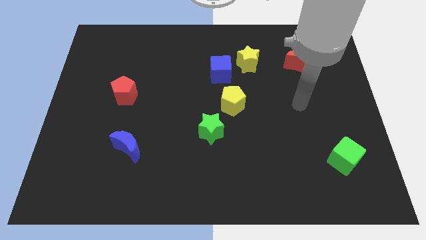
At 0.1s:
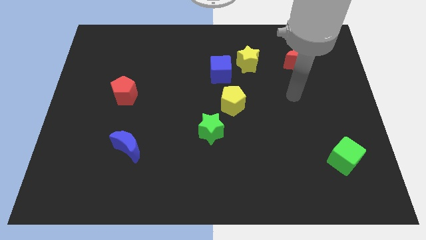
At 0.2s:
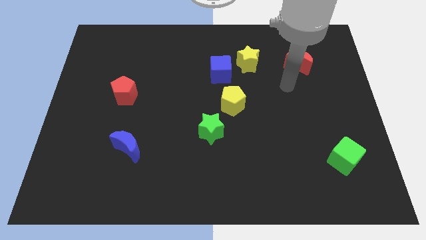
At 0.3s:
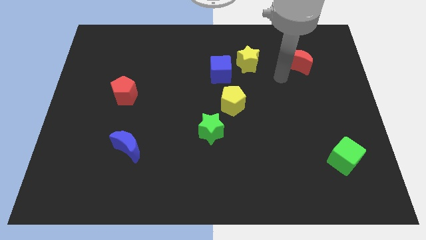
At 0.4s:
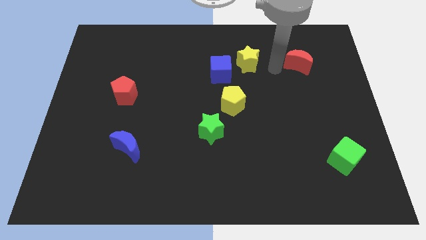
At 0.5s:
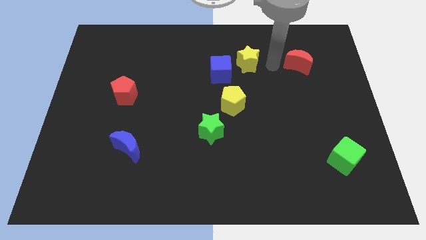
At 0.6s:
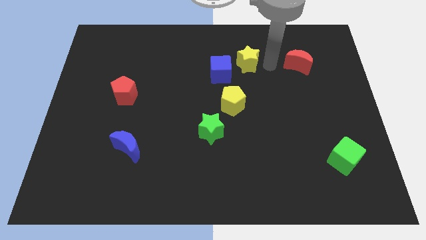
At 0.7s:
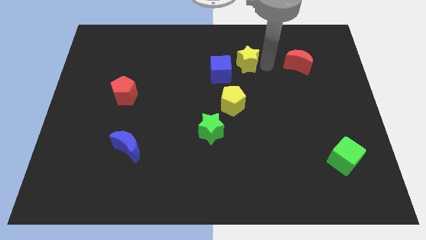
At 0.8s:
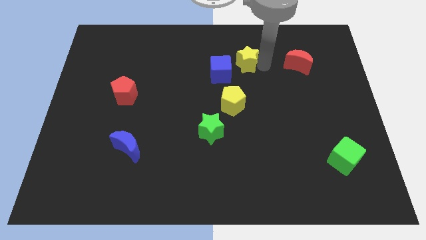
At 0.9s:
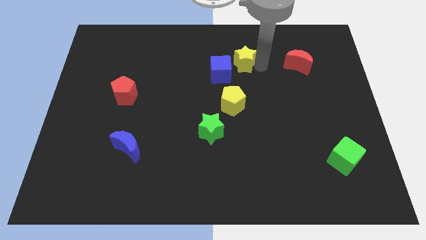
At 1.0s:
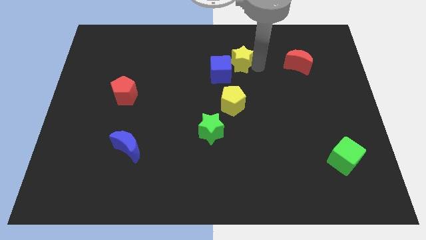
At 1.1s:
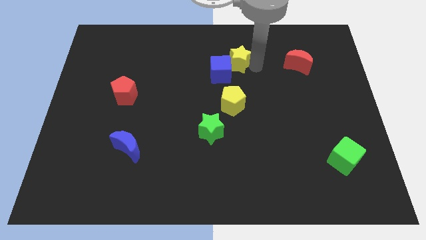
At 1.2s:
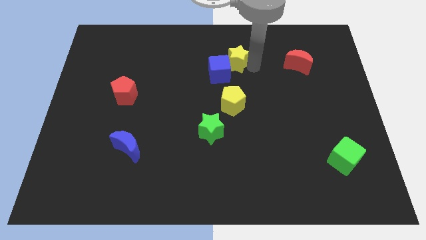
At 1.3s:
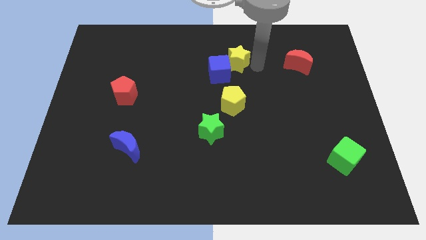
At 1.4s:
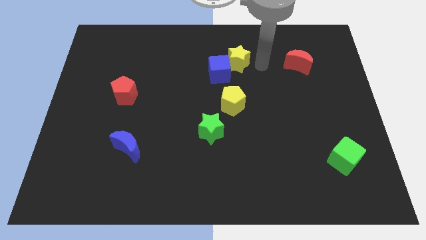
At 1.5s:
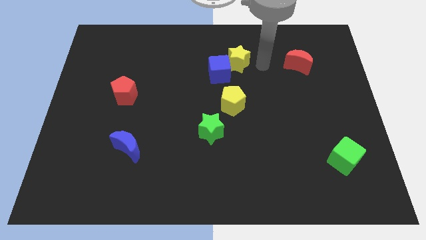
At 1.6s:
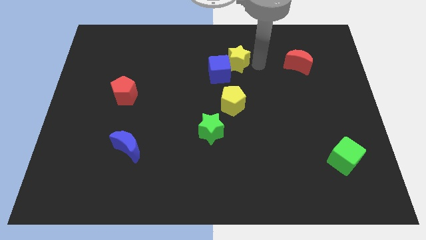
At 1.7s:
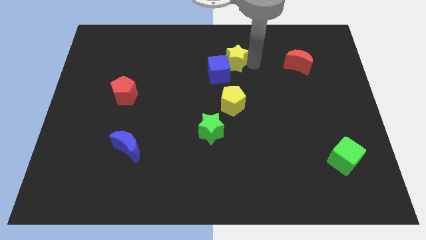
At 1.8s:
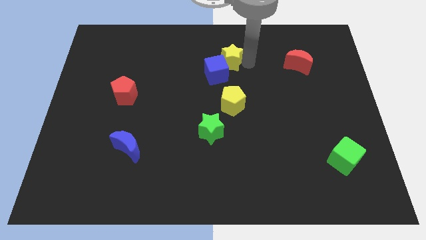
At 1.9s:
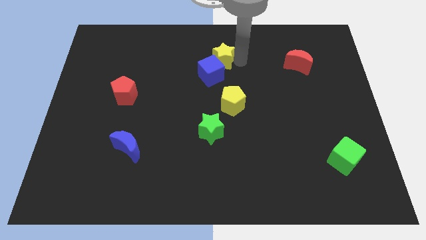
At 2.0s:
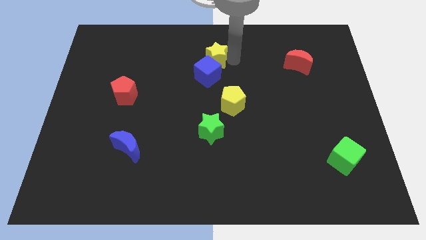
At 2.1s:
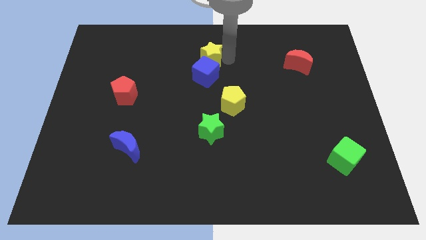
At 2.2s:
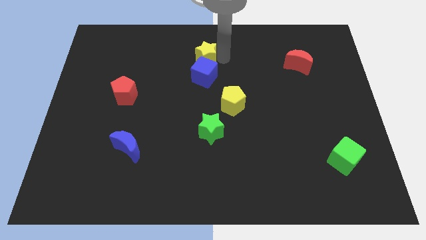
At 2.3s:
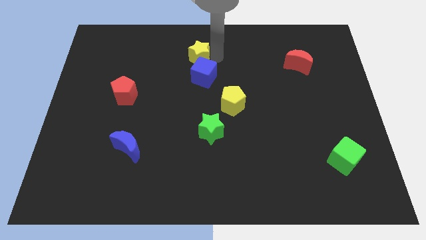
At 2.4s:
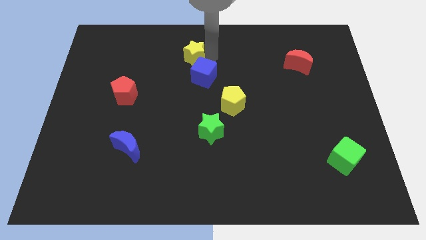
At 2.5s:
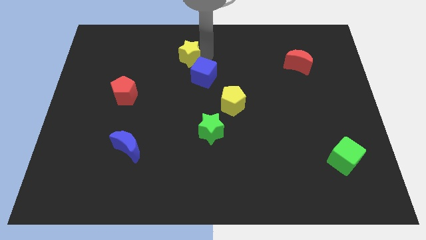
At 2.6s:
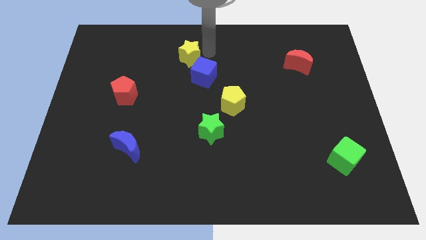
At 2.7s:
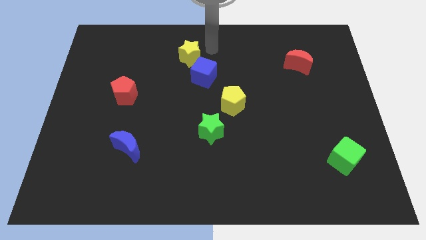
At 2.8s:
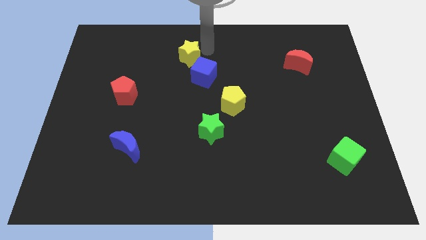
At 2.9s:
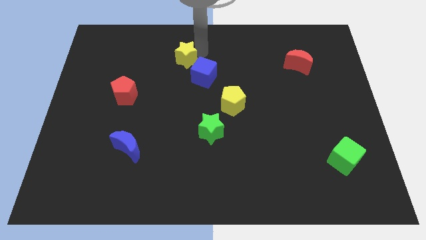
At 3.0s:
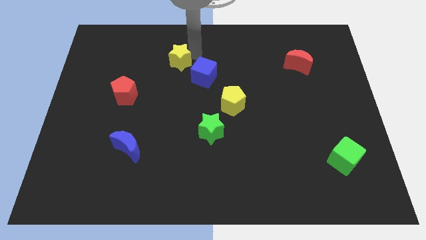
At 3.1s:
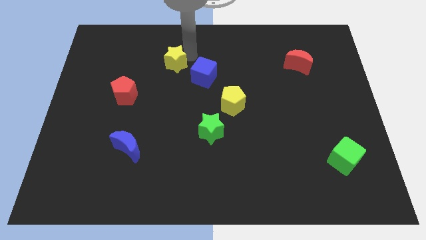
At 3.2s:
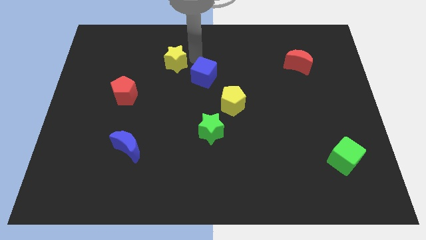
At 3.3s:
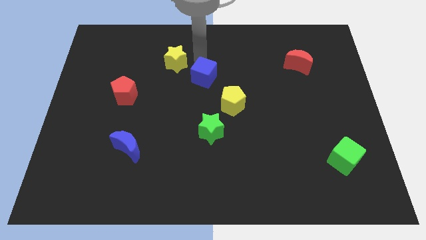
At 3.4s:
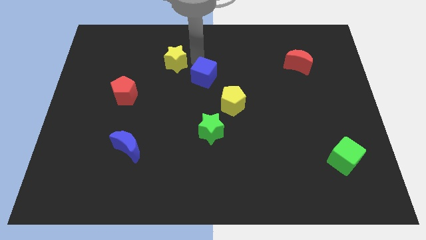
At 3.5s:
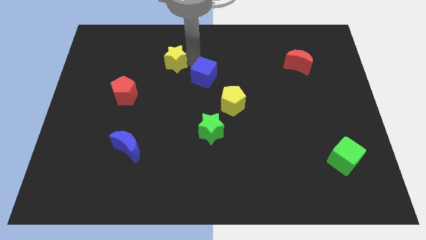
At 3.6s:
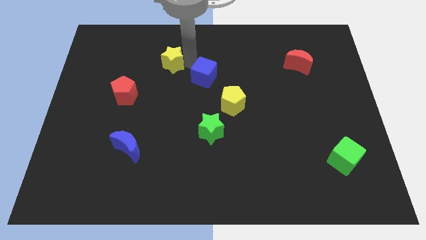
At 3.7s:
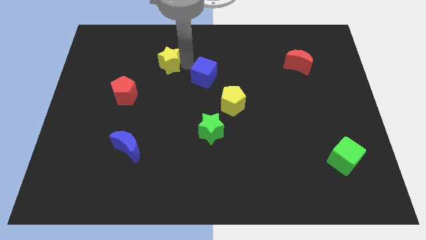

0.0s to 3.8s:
move the yellow star left

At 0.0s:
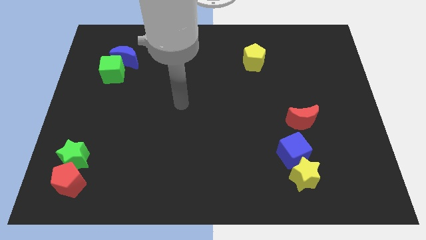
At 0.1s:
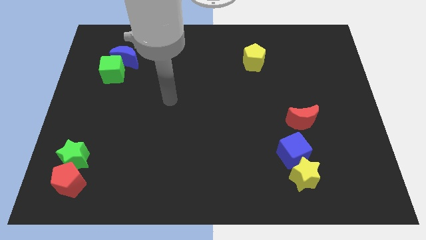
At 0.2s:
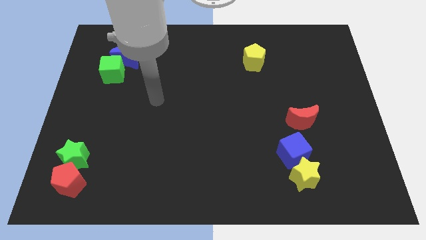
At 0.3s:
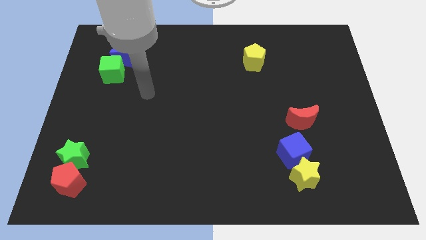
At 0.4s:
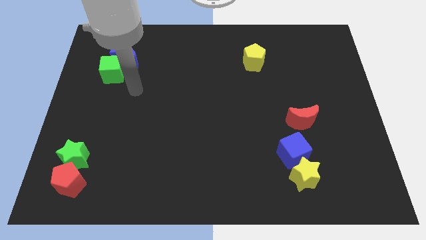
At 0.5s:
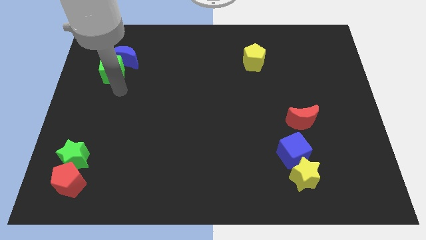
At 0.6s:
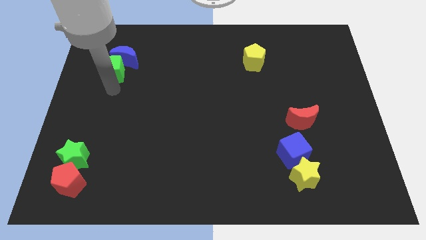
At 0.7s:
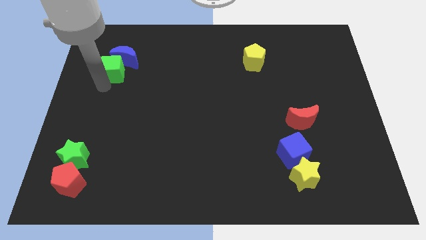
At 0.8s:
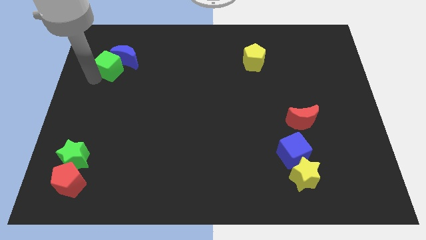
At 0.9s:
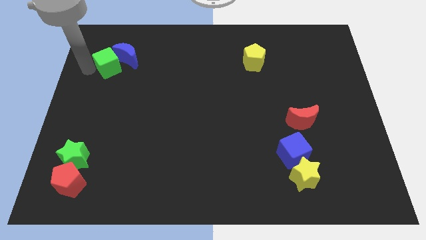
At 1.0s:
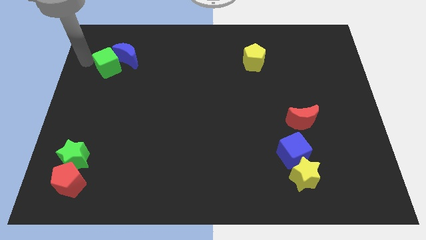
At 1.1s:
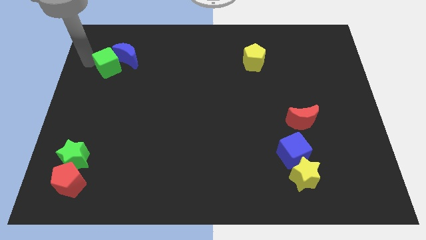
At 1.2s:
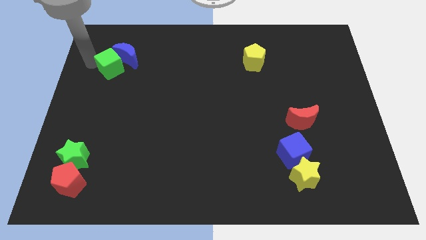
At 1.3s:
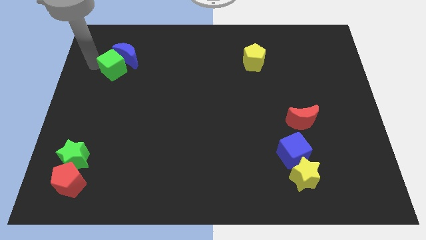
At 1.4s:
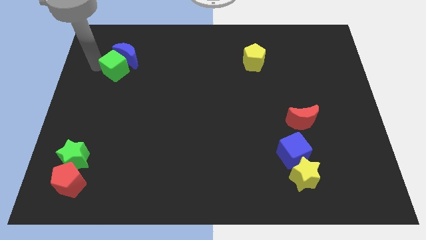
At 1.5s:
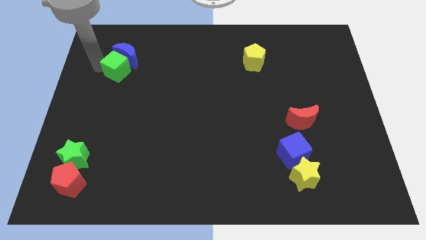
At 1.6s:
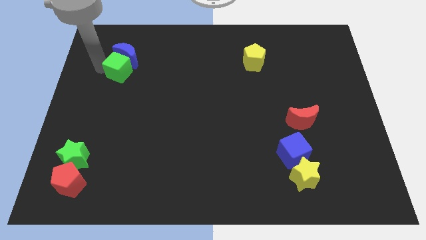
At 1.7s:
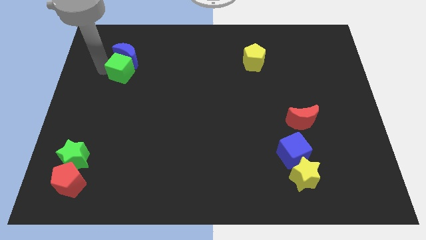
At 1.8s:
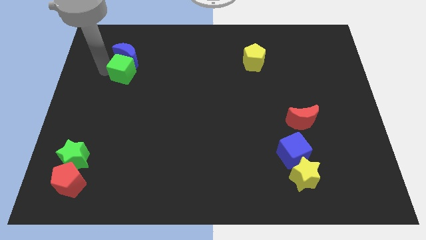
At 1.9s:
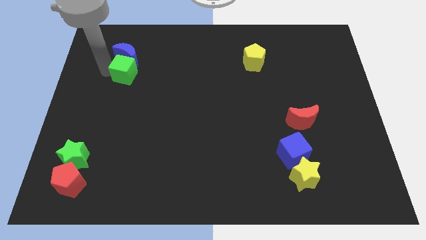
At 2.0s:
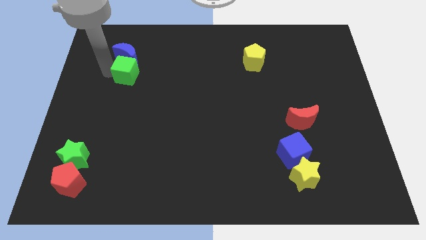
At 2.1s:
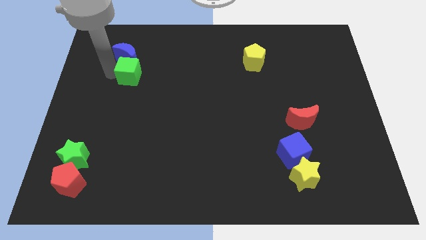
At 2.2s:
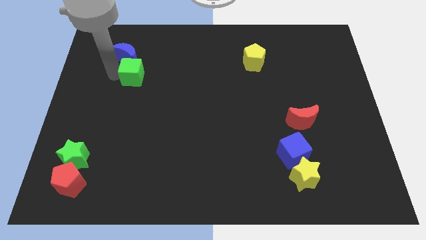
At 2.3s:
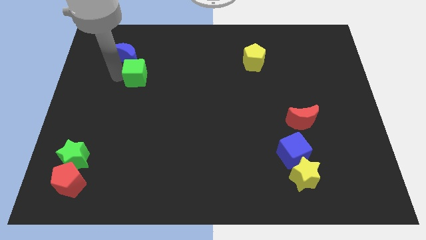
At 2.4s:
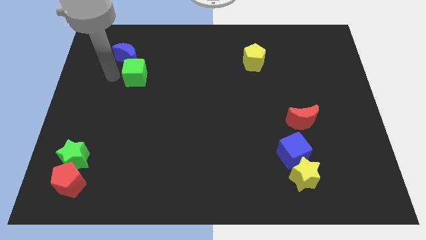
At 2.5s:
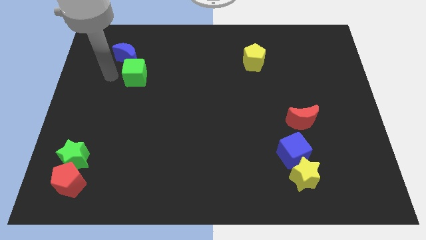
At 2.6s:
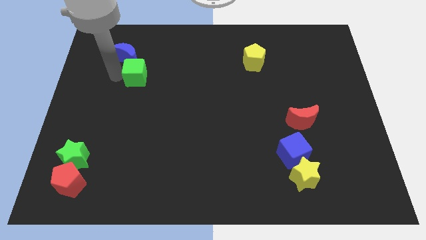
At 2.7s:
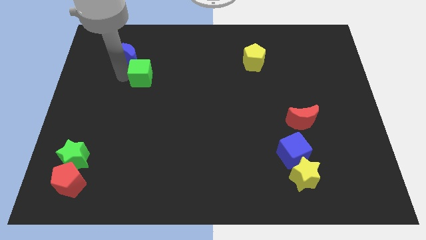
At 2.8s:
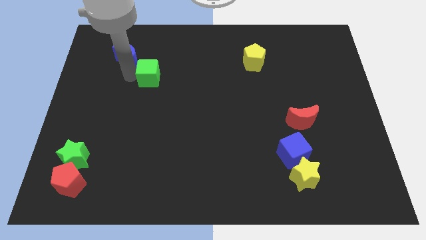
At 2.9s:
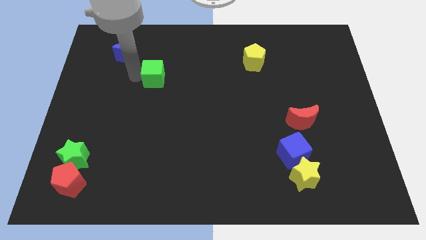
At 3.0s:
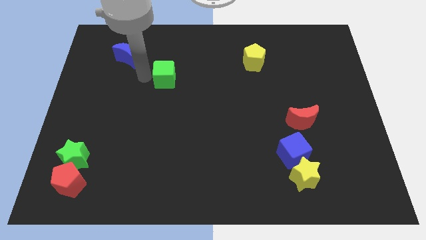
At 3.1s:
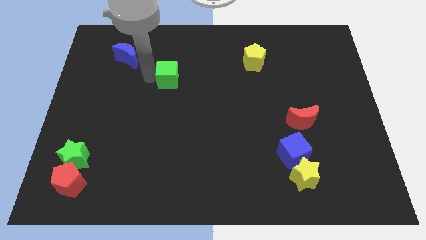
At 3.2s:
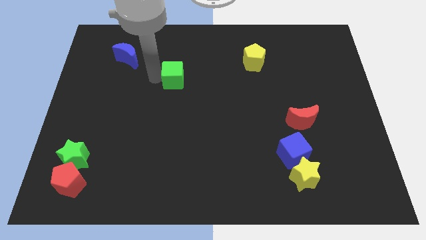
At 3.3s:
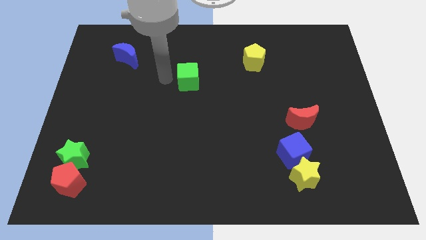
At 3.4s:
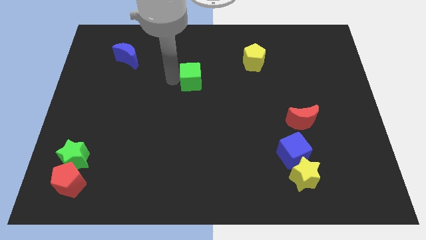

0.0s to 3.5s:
move the green cube to the right

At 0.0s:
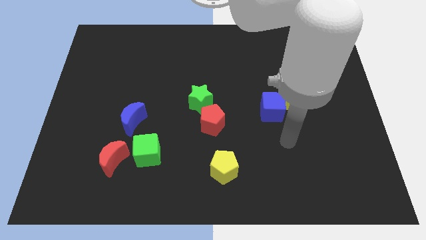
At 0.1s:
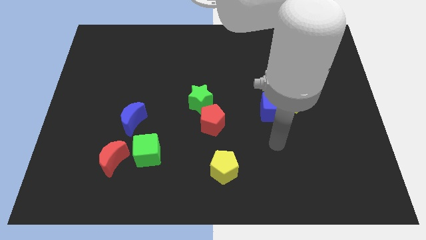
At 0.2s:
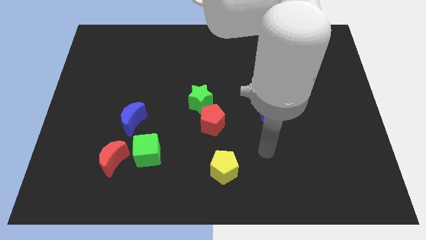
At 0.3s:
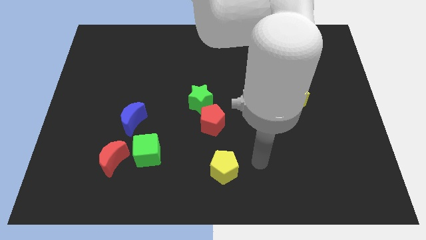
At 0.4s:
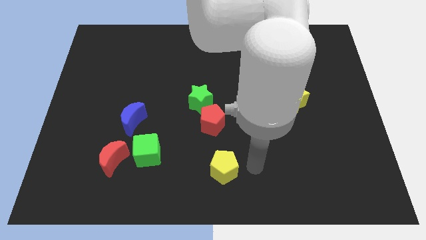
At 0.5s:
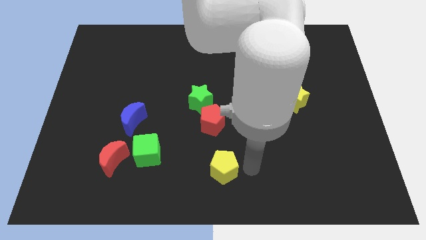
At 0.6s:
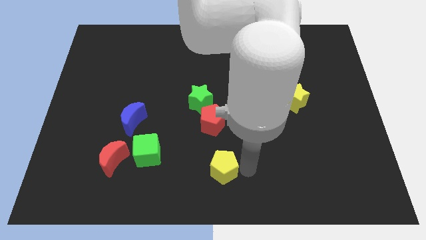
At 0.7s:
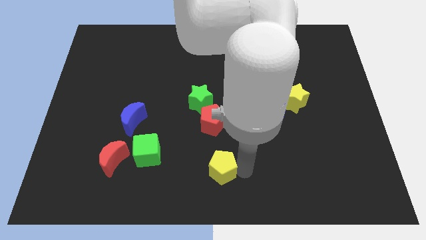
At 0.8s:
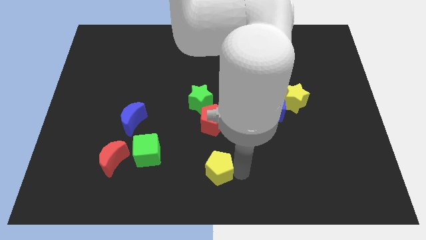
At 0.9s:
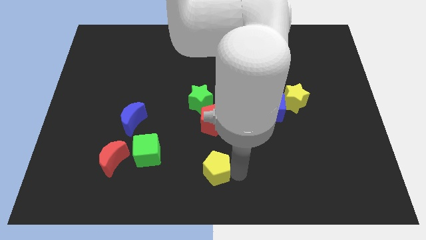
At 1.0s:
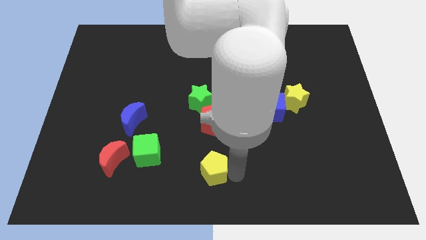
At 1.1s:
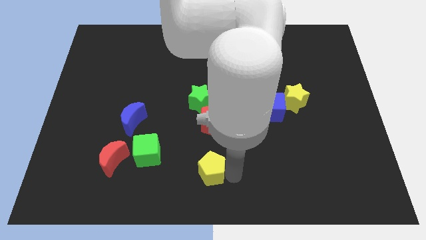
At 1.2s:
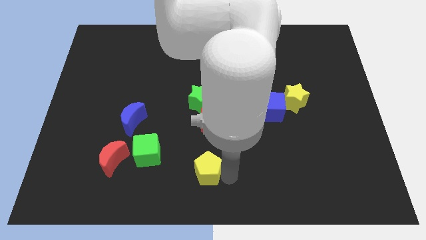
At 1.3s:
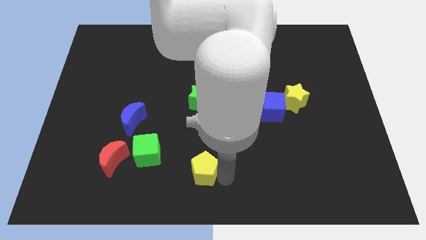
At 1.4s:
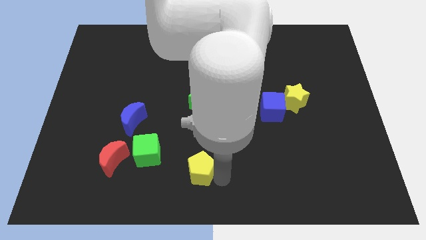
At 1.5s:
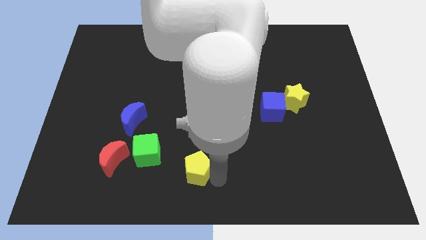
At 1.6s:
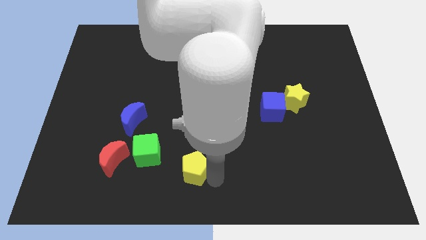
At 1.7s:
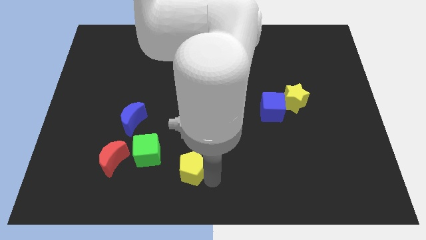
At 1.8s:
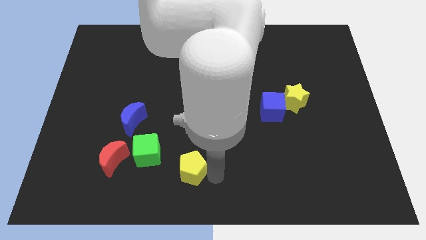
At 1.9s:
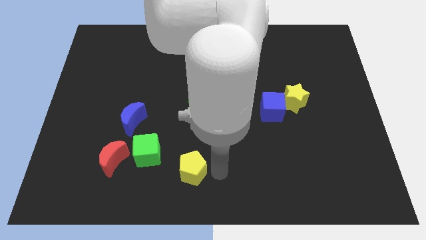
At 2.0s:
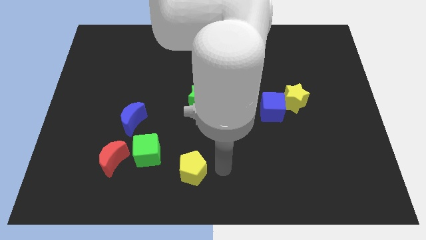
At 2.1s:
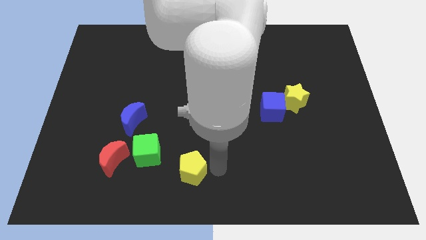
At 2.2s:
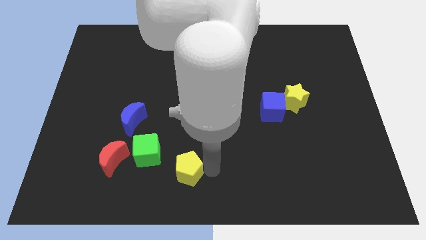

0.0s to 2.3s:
slightly push the yellow pentagon to the left
